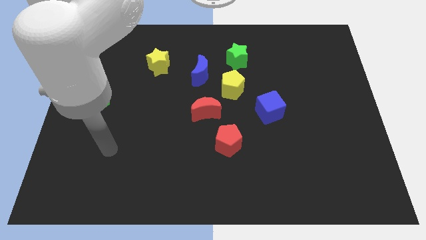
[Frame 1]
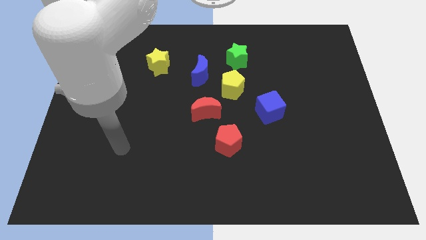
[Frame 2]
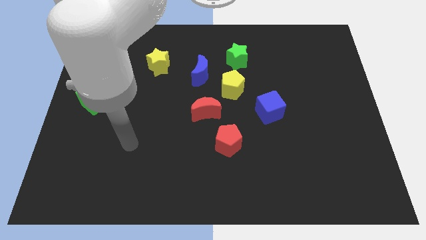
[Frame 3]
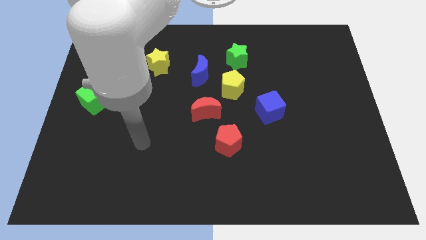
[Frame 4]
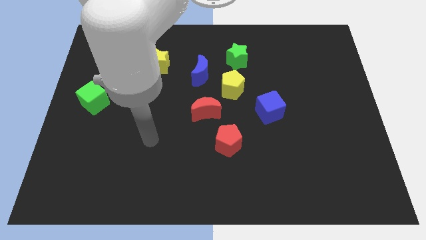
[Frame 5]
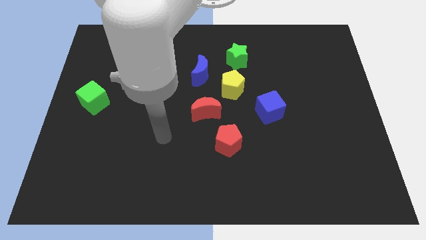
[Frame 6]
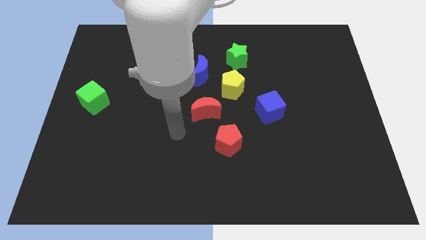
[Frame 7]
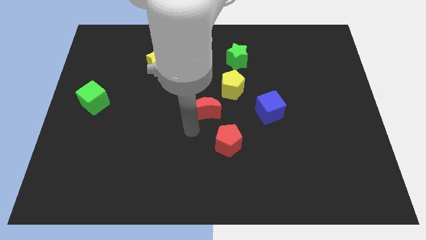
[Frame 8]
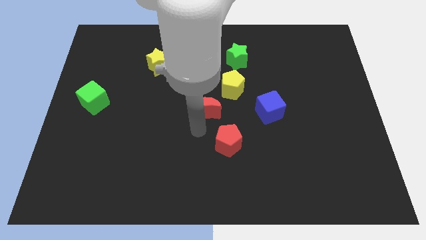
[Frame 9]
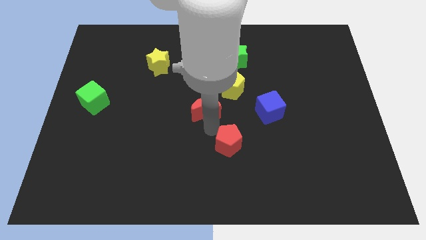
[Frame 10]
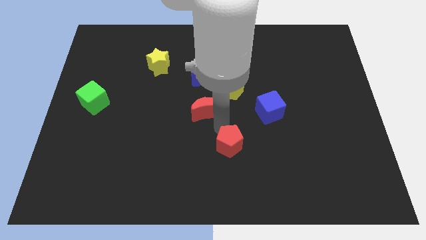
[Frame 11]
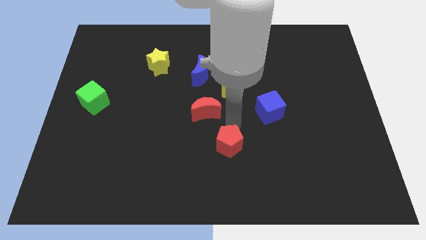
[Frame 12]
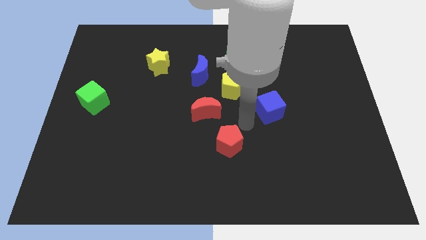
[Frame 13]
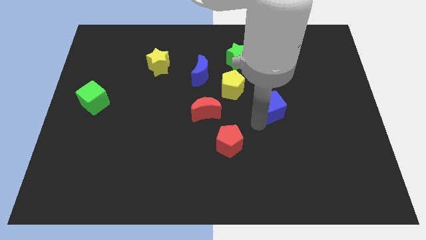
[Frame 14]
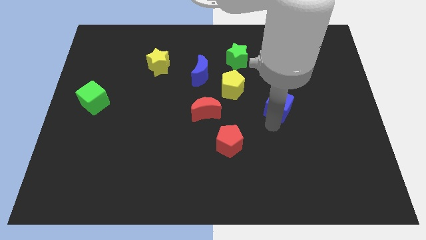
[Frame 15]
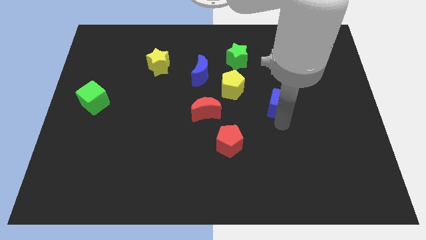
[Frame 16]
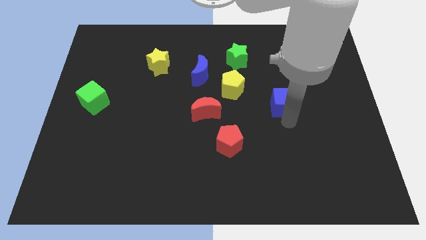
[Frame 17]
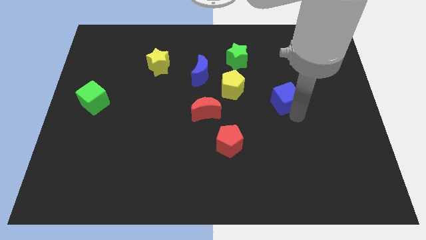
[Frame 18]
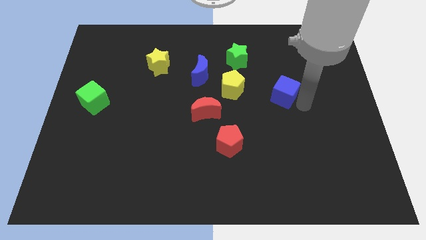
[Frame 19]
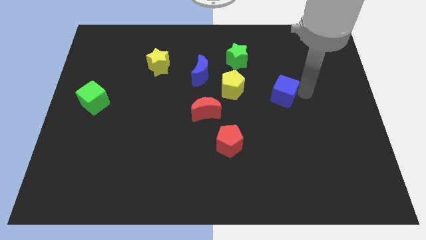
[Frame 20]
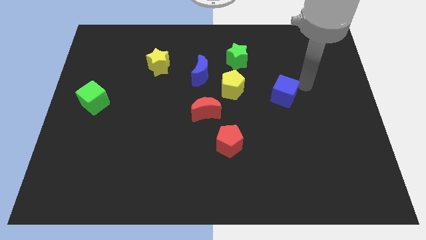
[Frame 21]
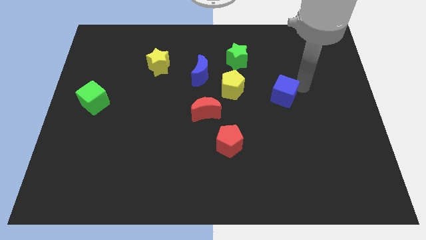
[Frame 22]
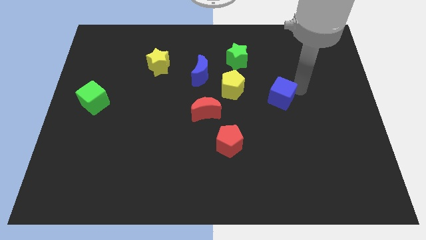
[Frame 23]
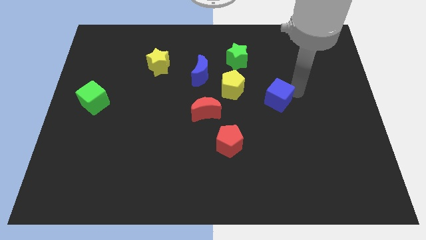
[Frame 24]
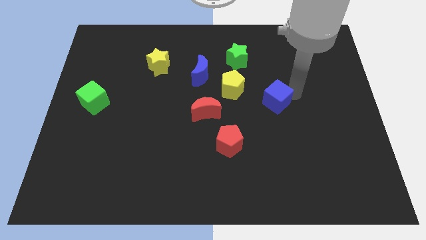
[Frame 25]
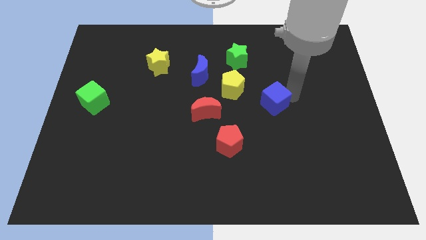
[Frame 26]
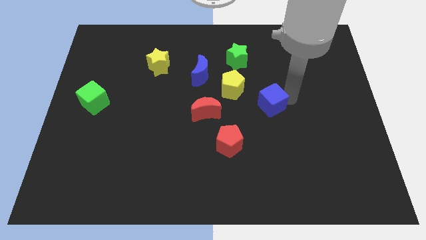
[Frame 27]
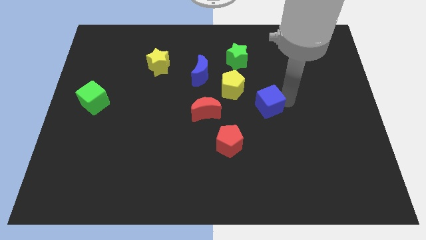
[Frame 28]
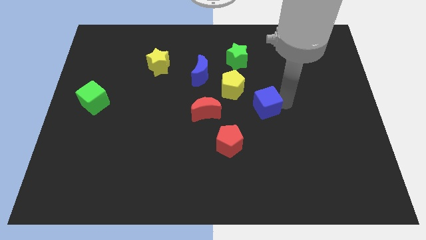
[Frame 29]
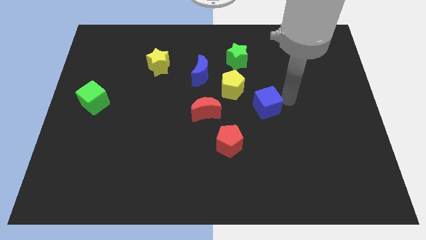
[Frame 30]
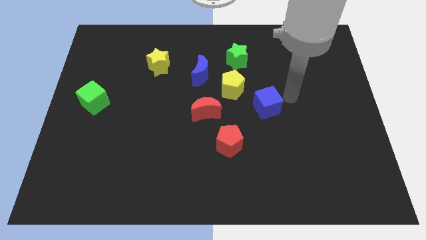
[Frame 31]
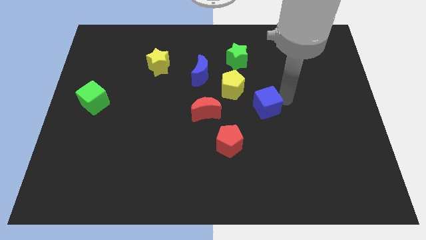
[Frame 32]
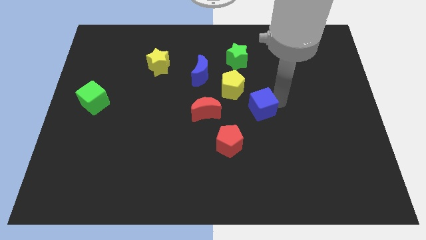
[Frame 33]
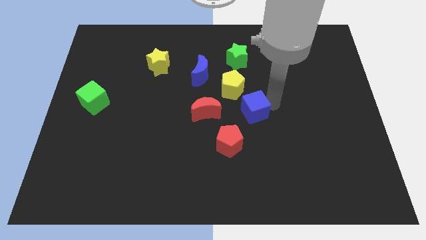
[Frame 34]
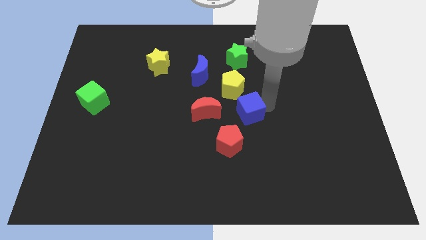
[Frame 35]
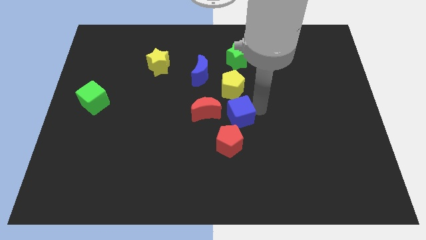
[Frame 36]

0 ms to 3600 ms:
slightly push the blue cube to the left

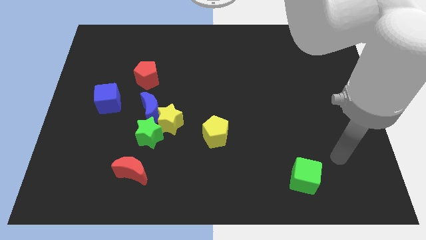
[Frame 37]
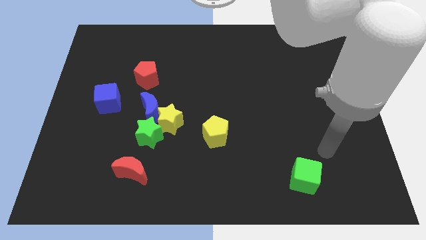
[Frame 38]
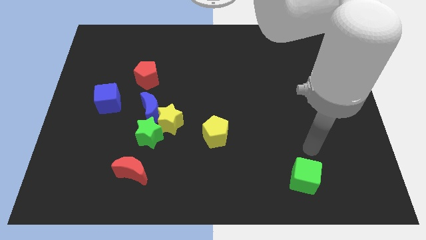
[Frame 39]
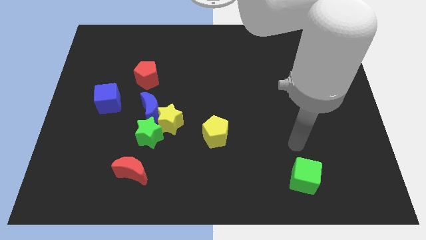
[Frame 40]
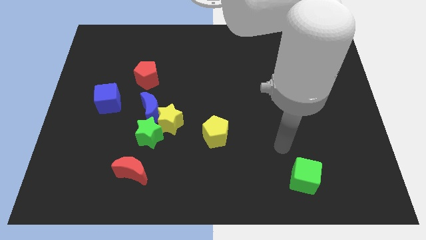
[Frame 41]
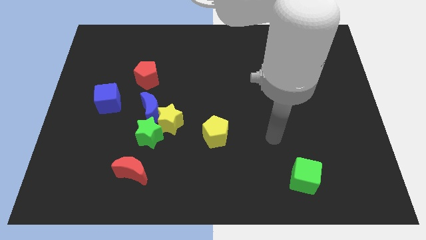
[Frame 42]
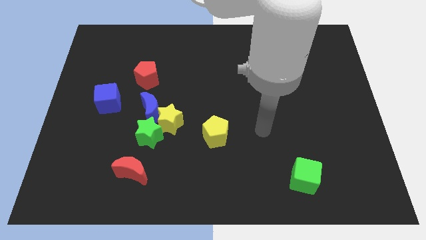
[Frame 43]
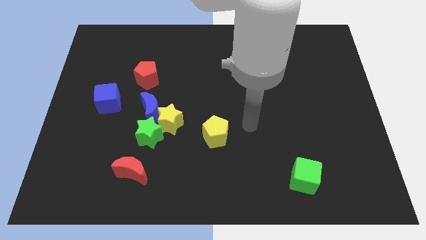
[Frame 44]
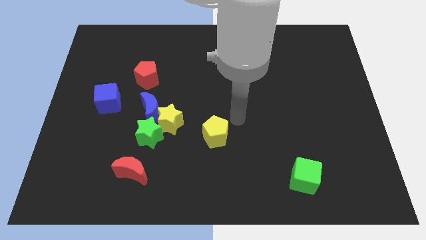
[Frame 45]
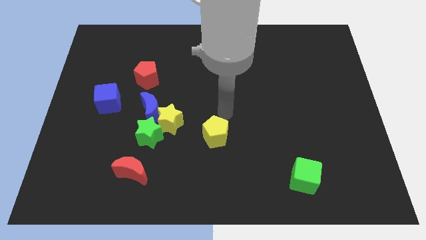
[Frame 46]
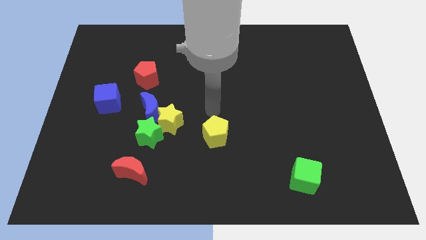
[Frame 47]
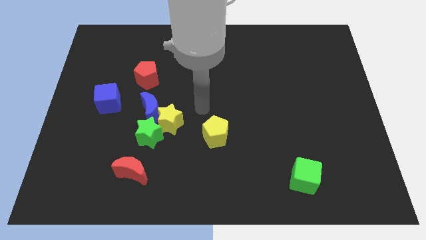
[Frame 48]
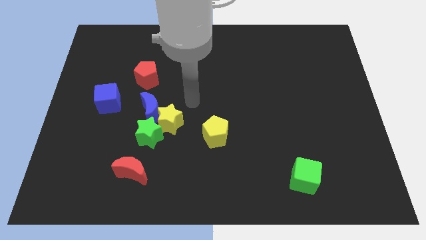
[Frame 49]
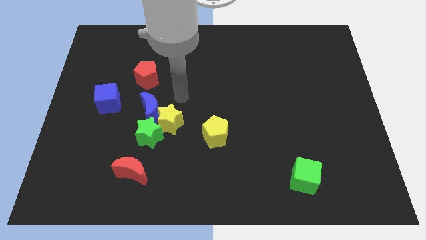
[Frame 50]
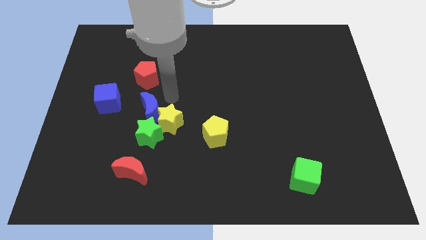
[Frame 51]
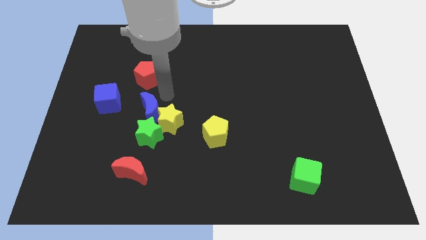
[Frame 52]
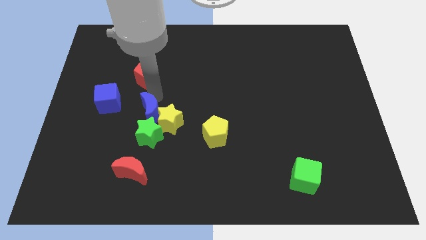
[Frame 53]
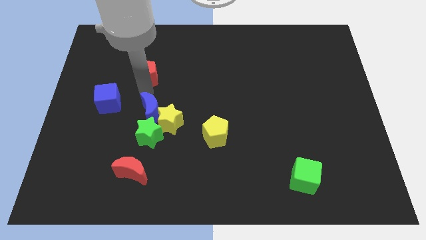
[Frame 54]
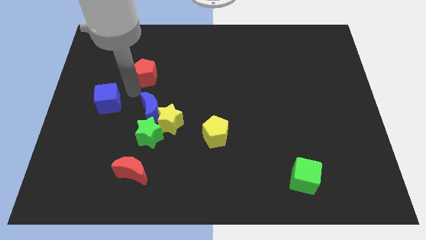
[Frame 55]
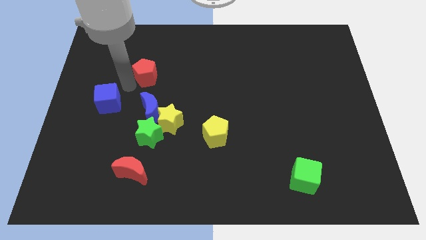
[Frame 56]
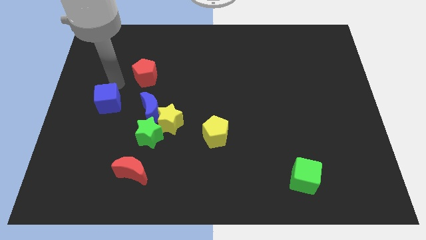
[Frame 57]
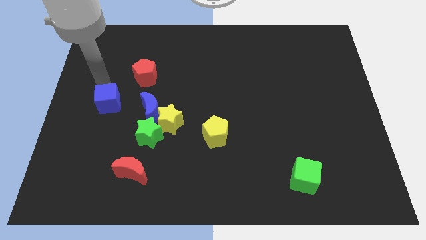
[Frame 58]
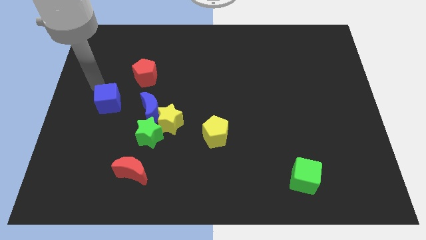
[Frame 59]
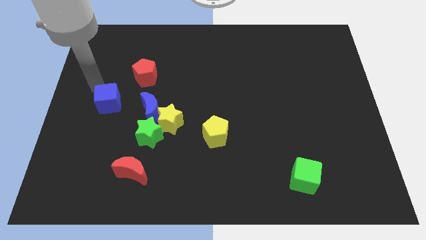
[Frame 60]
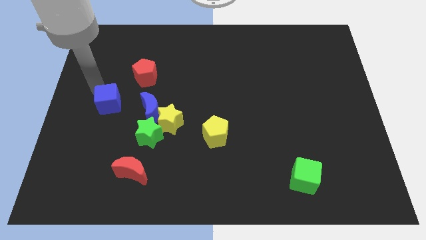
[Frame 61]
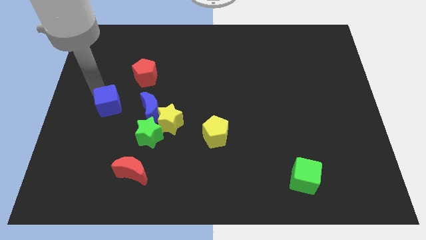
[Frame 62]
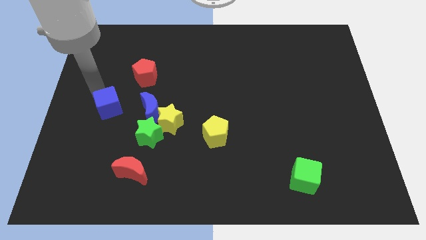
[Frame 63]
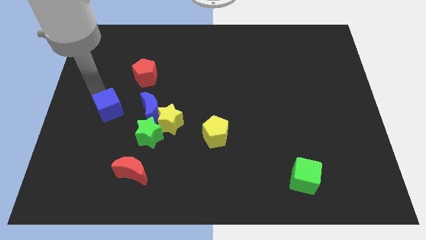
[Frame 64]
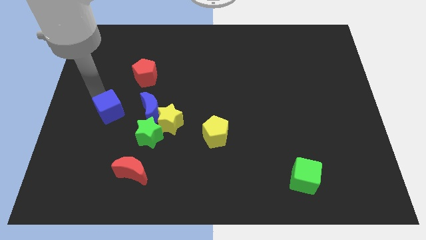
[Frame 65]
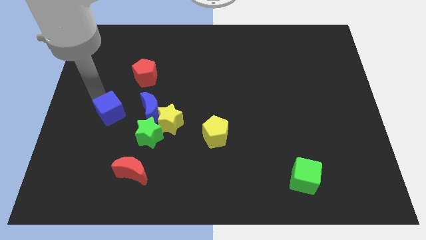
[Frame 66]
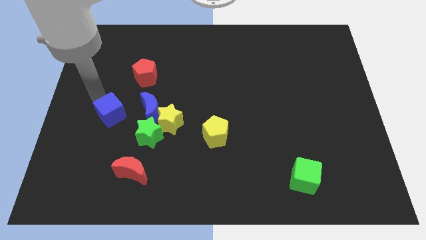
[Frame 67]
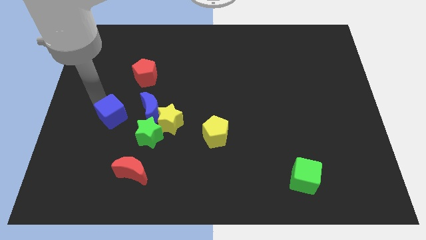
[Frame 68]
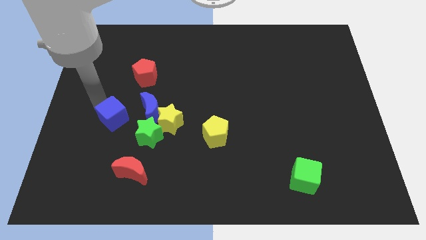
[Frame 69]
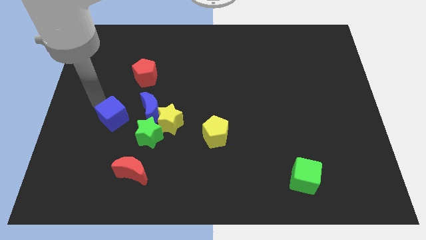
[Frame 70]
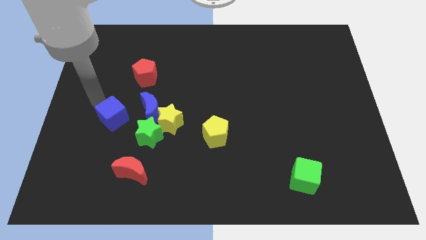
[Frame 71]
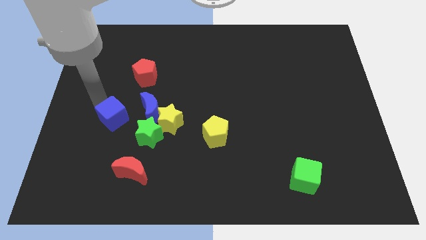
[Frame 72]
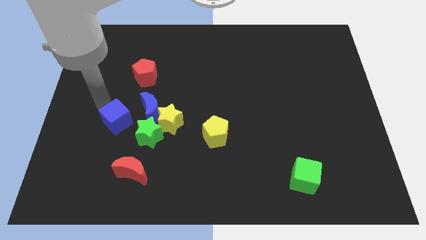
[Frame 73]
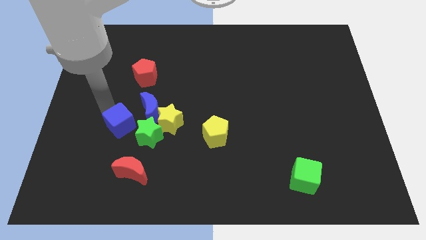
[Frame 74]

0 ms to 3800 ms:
push the blue cube down and right diagonally slightly

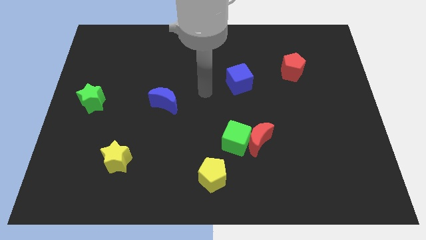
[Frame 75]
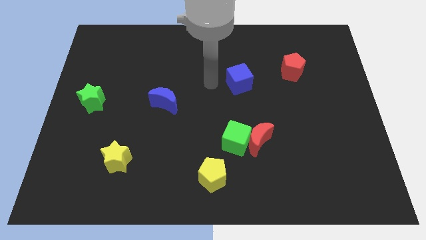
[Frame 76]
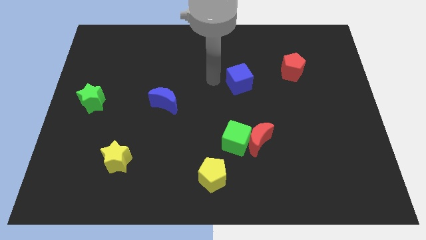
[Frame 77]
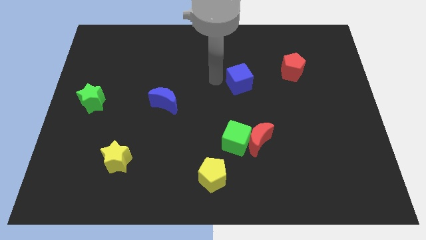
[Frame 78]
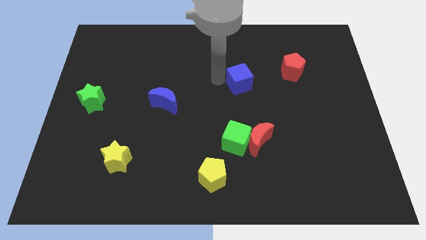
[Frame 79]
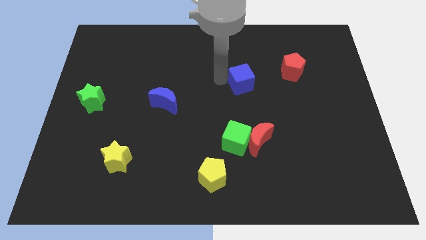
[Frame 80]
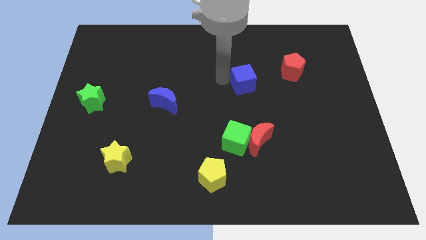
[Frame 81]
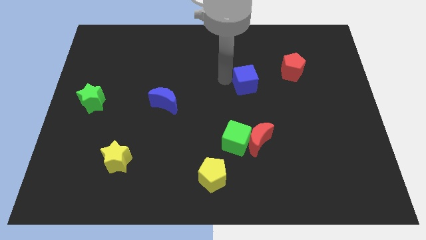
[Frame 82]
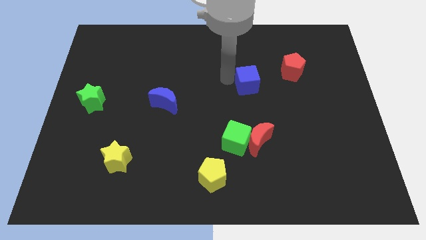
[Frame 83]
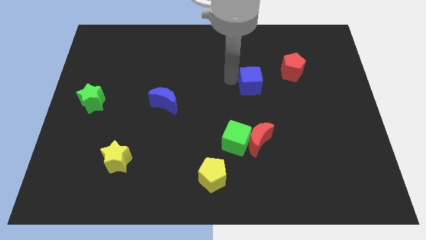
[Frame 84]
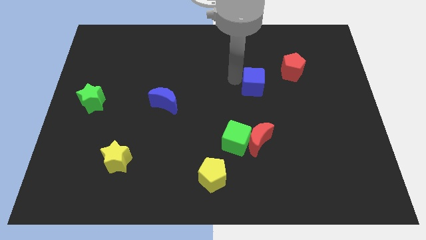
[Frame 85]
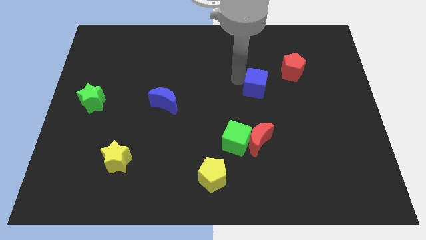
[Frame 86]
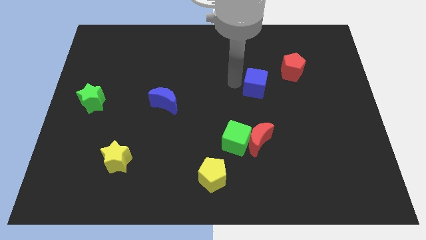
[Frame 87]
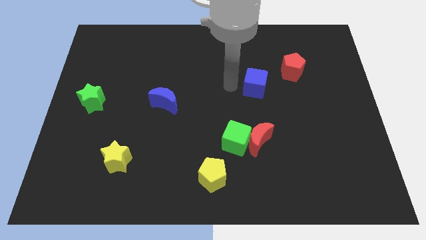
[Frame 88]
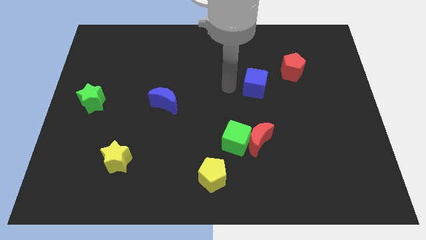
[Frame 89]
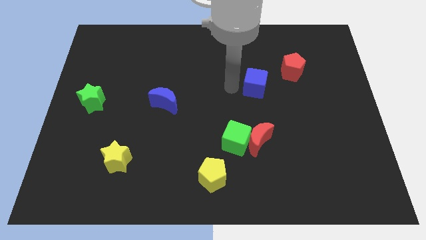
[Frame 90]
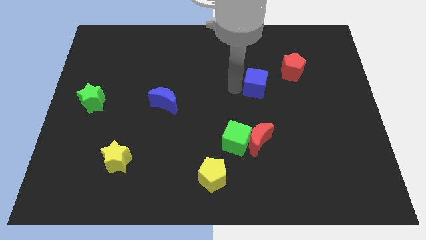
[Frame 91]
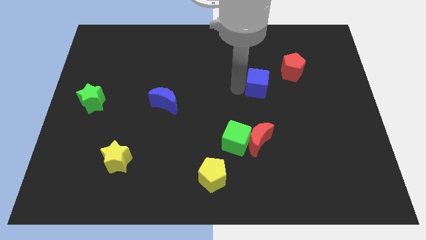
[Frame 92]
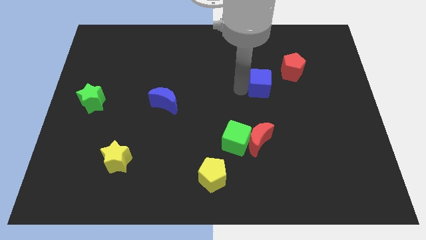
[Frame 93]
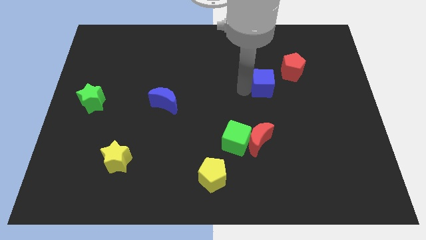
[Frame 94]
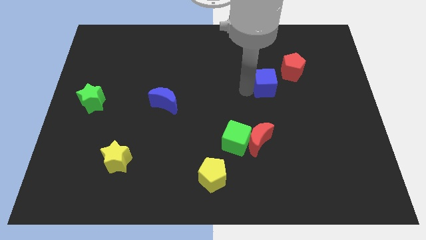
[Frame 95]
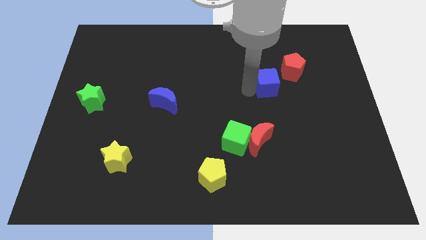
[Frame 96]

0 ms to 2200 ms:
slide the blue cube a little bit right
